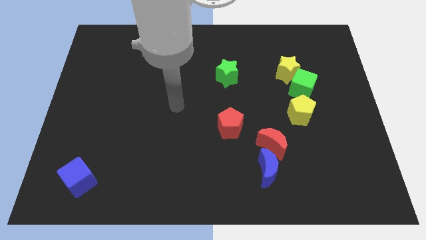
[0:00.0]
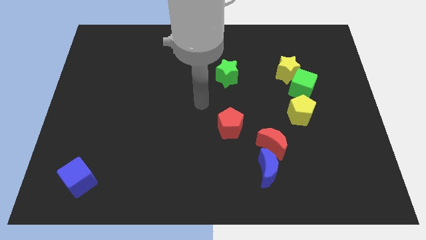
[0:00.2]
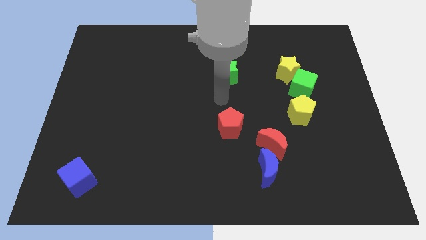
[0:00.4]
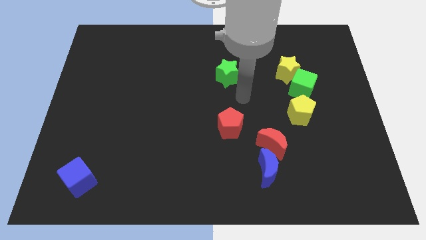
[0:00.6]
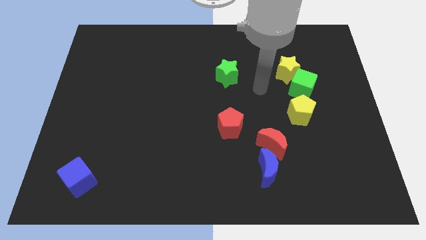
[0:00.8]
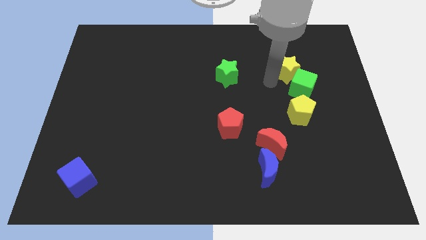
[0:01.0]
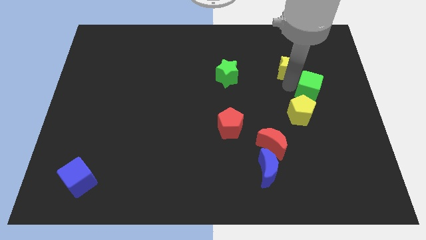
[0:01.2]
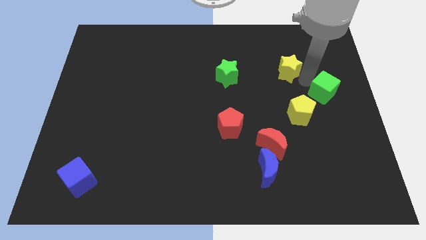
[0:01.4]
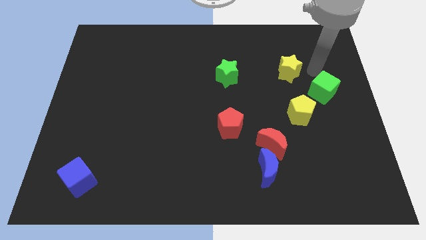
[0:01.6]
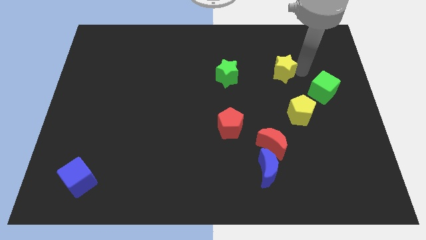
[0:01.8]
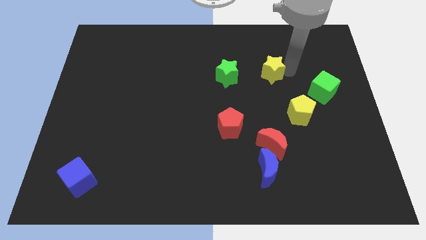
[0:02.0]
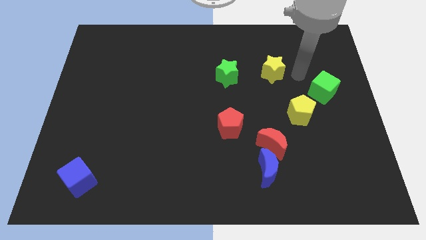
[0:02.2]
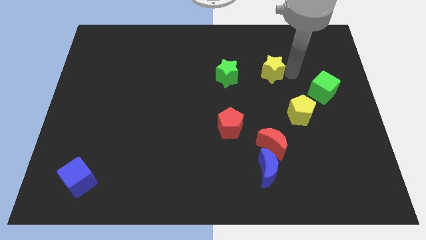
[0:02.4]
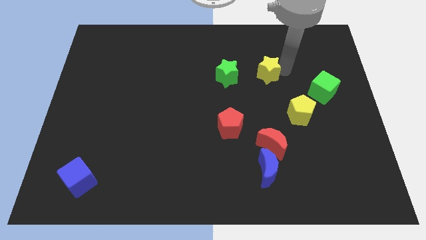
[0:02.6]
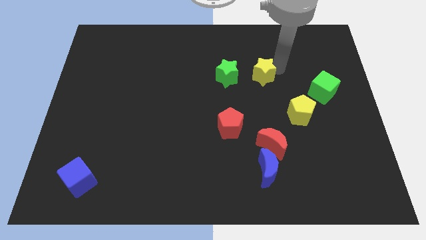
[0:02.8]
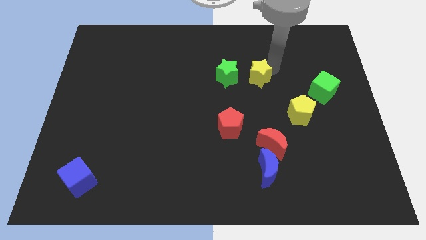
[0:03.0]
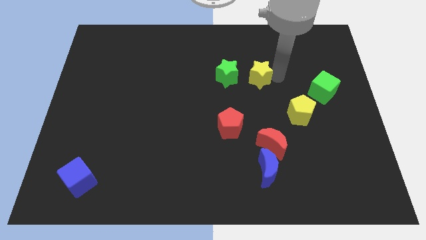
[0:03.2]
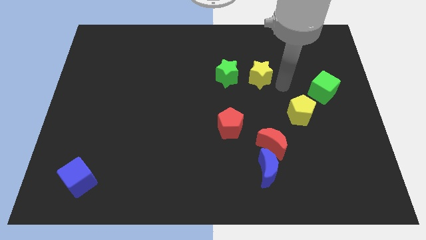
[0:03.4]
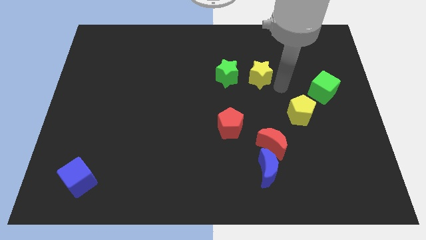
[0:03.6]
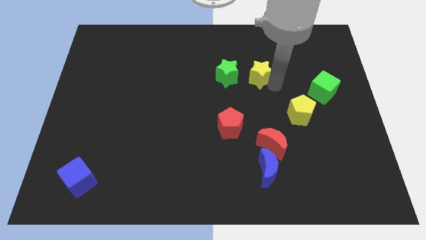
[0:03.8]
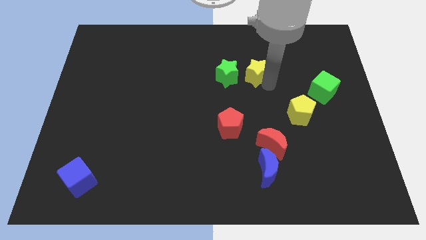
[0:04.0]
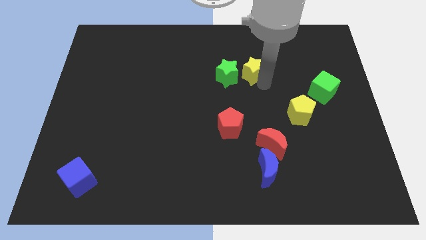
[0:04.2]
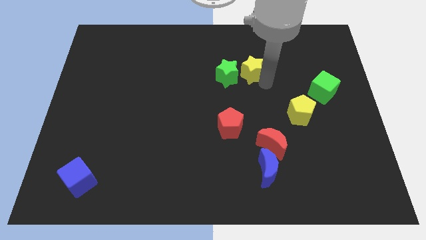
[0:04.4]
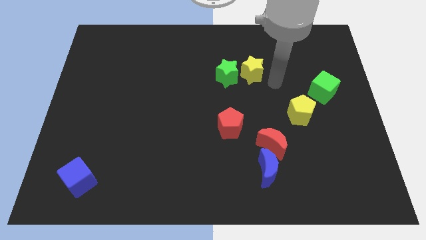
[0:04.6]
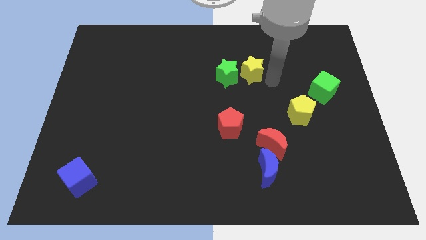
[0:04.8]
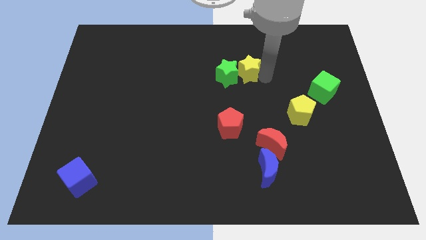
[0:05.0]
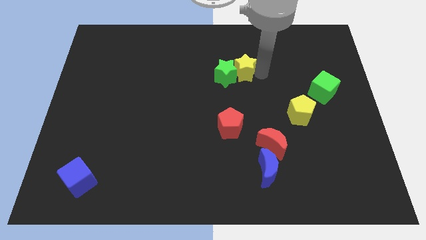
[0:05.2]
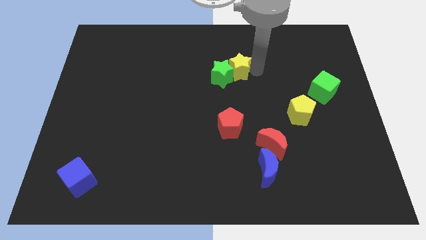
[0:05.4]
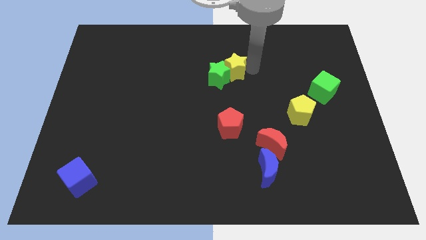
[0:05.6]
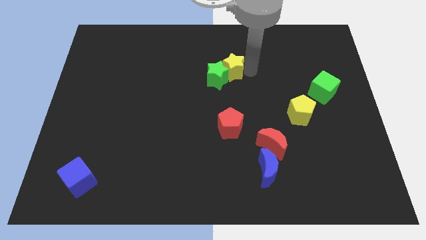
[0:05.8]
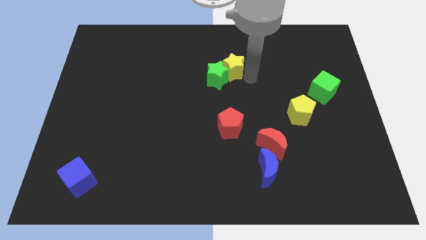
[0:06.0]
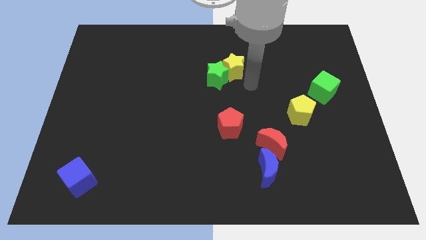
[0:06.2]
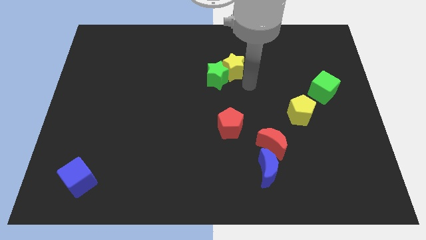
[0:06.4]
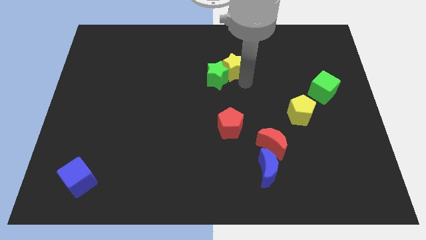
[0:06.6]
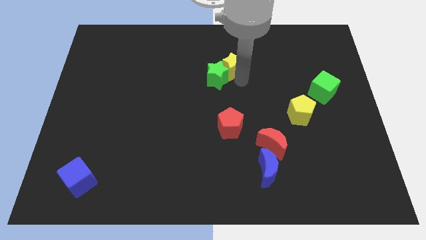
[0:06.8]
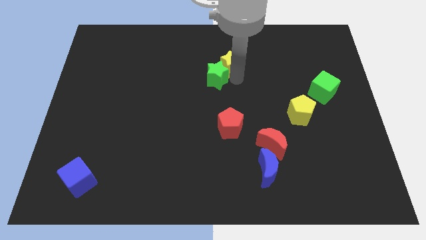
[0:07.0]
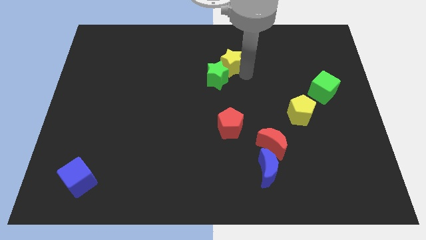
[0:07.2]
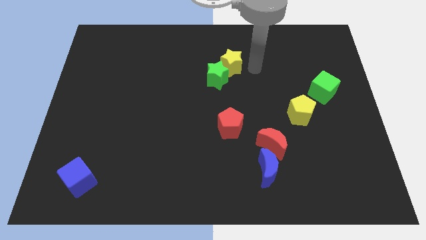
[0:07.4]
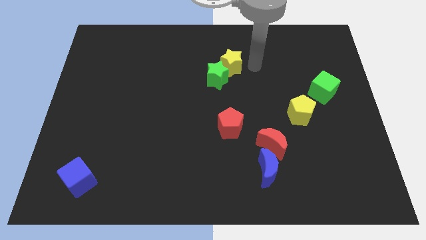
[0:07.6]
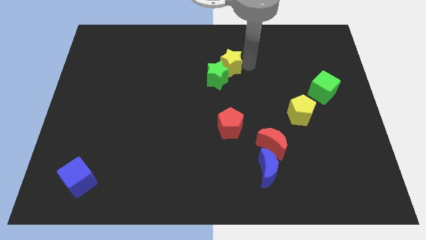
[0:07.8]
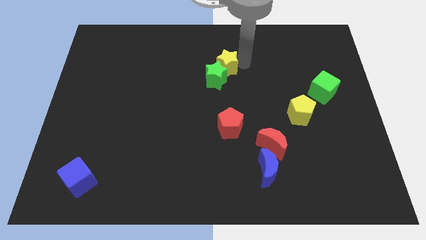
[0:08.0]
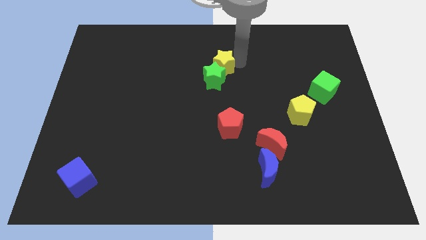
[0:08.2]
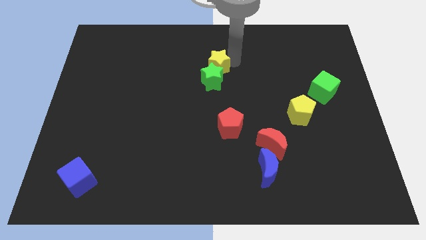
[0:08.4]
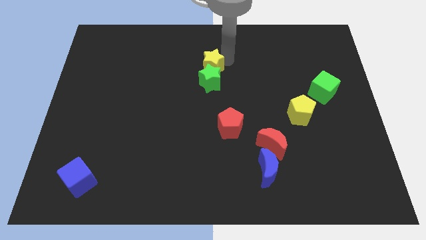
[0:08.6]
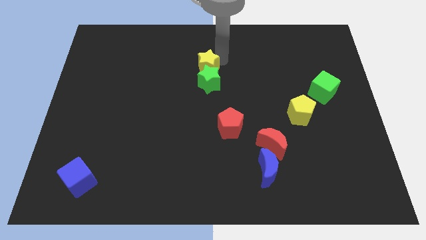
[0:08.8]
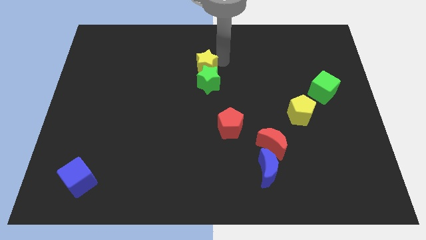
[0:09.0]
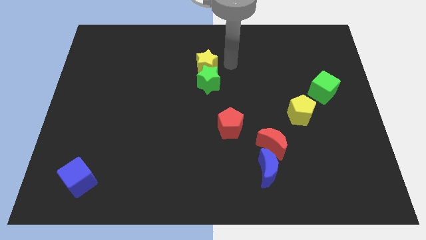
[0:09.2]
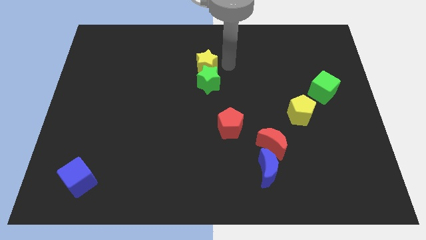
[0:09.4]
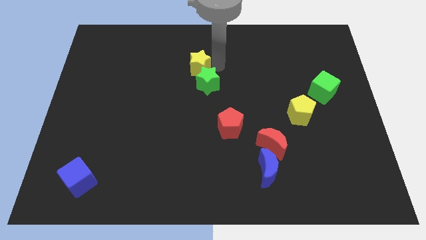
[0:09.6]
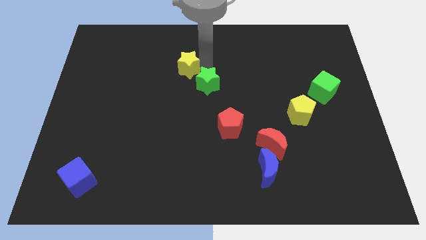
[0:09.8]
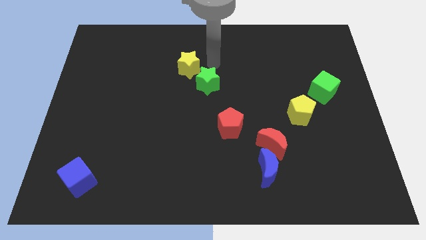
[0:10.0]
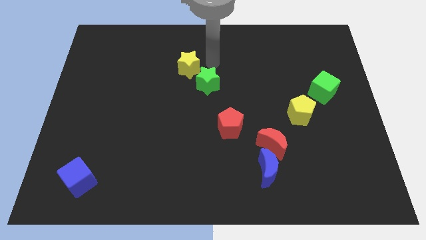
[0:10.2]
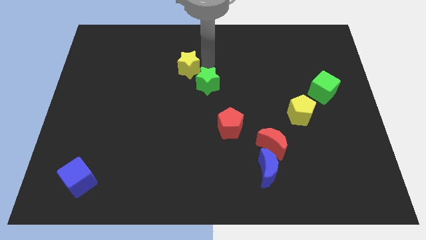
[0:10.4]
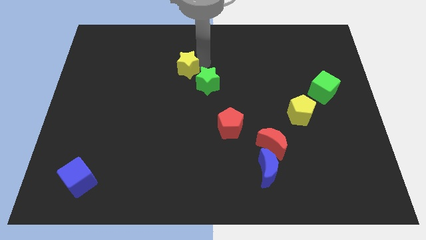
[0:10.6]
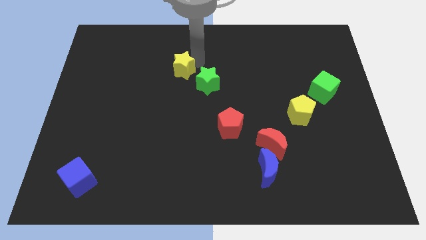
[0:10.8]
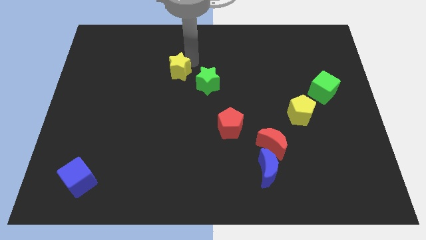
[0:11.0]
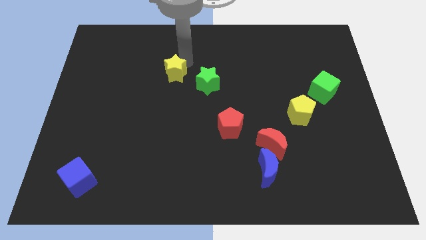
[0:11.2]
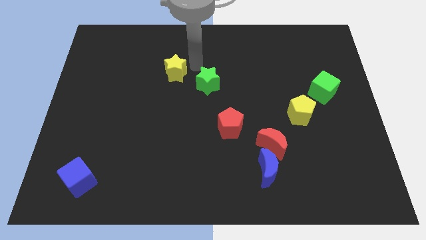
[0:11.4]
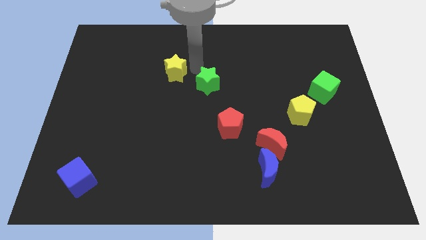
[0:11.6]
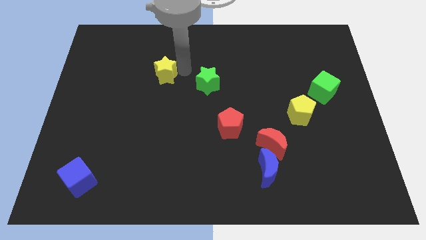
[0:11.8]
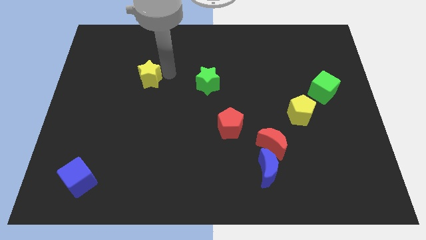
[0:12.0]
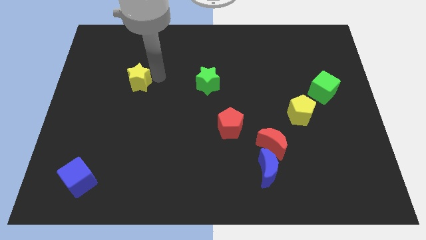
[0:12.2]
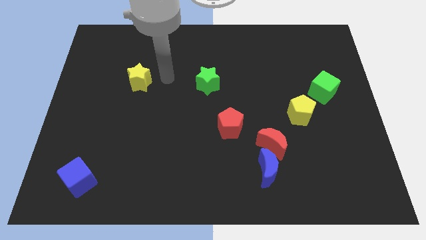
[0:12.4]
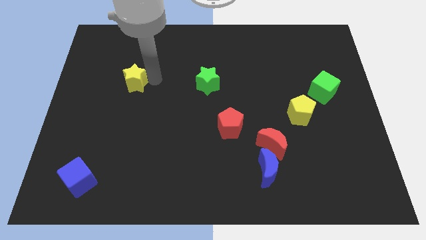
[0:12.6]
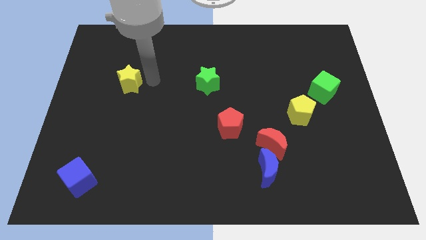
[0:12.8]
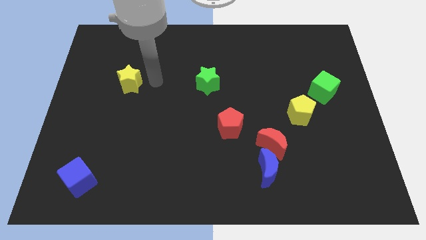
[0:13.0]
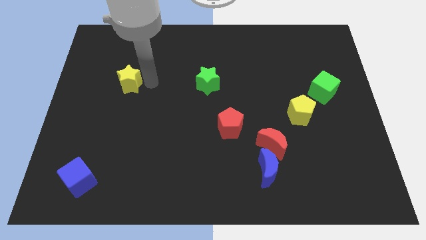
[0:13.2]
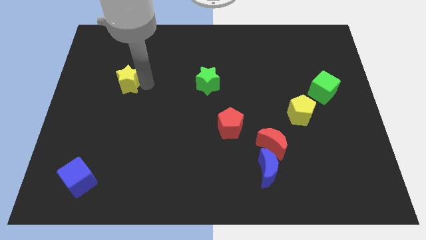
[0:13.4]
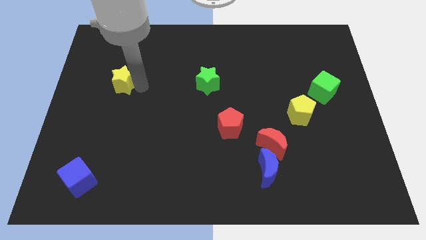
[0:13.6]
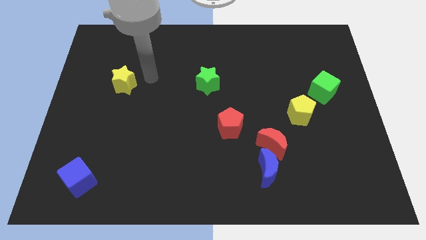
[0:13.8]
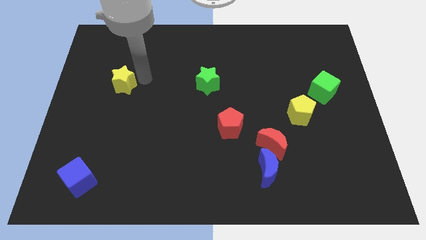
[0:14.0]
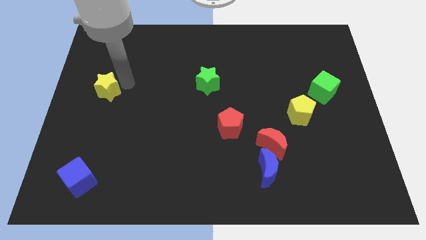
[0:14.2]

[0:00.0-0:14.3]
slide the yellow star to the left side
